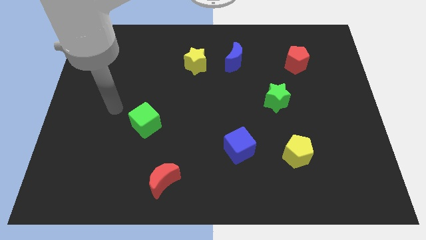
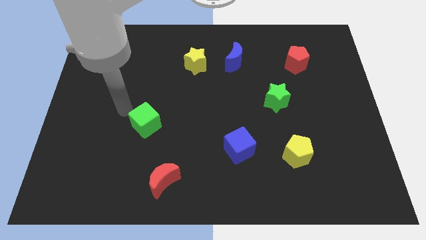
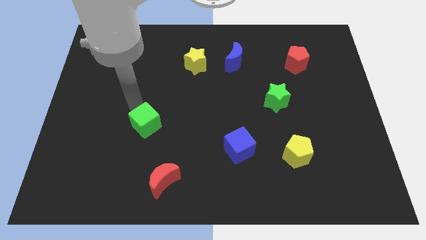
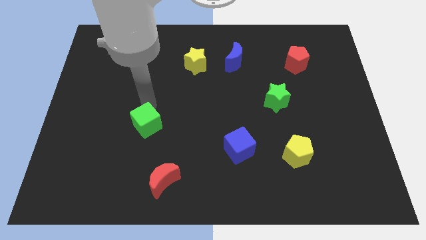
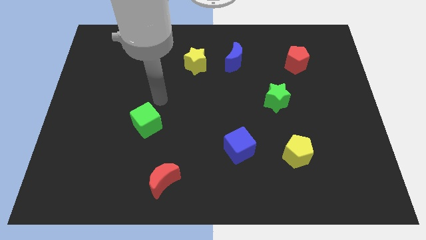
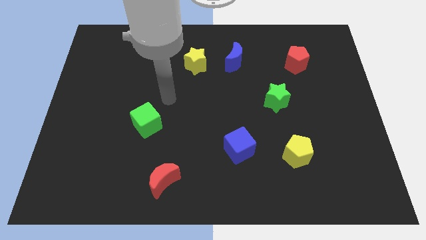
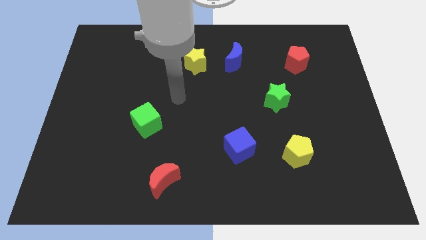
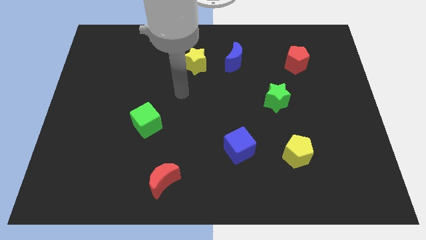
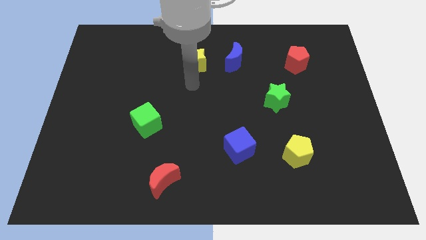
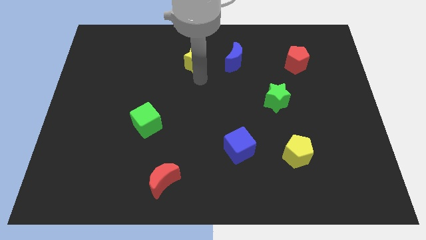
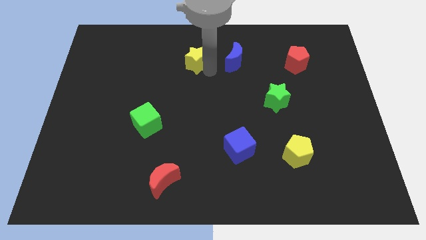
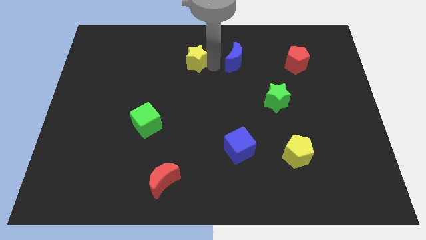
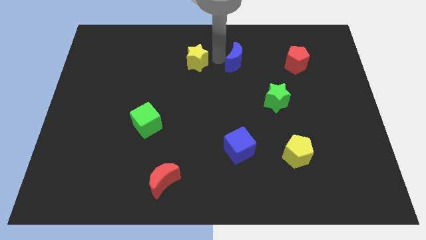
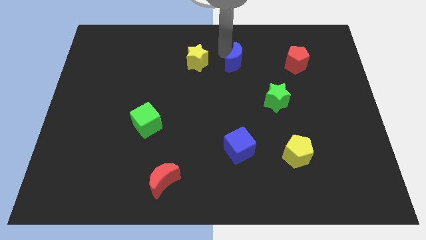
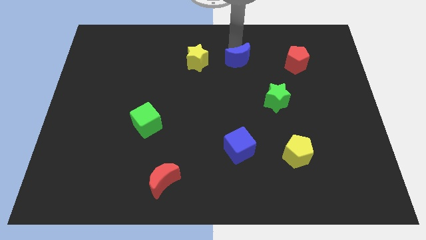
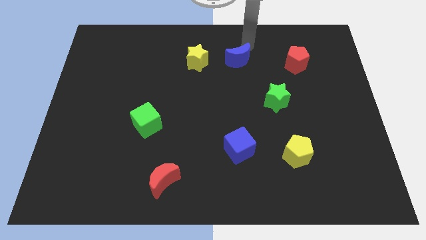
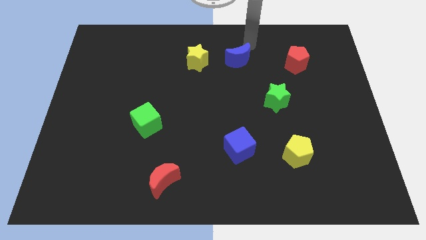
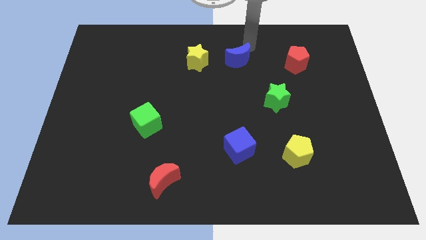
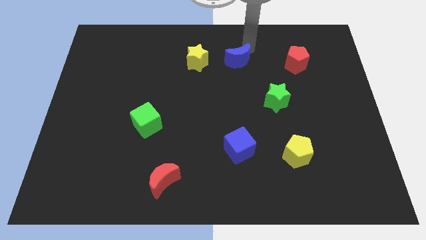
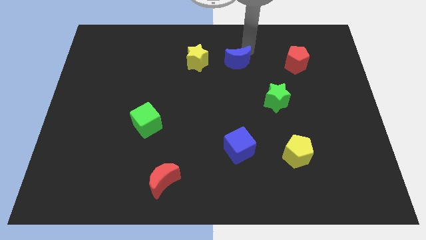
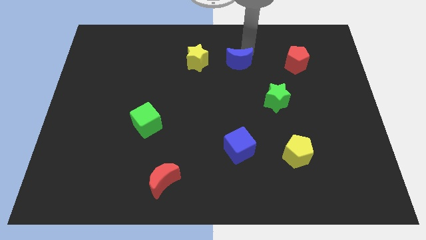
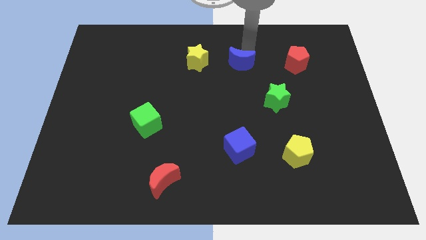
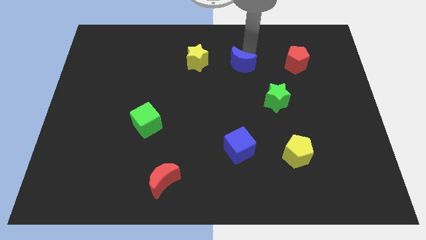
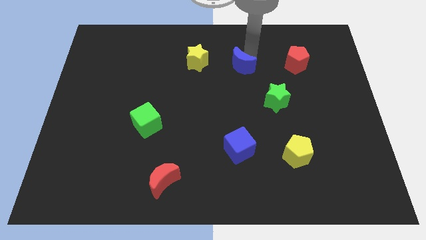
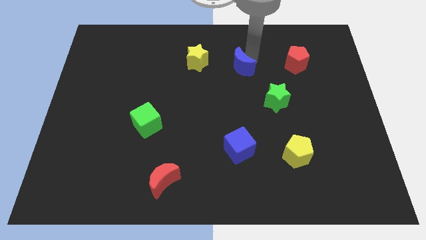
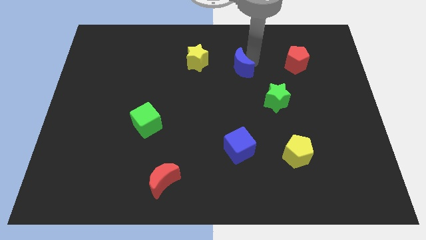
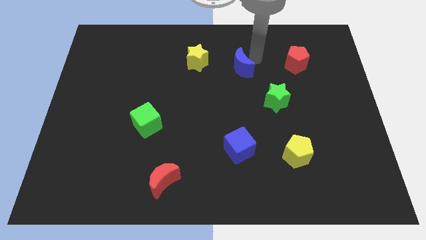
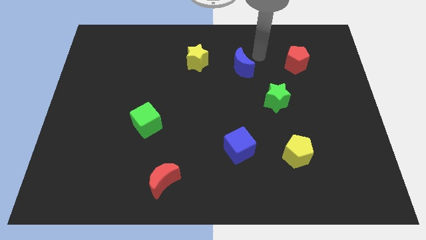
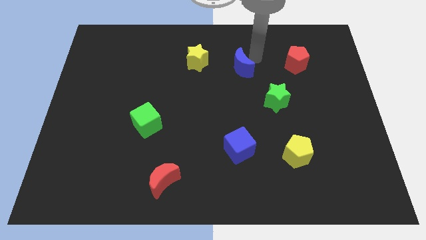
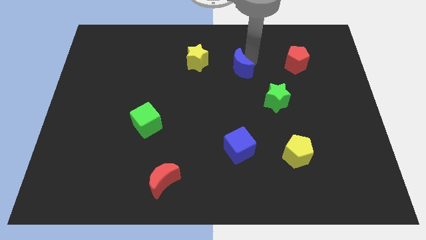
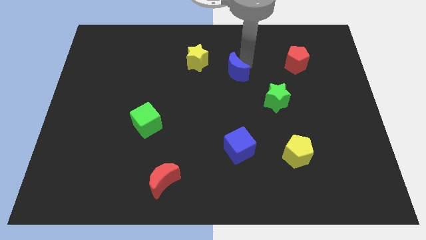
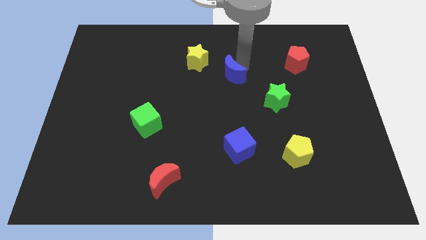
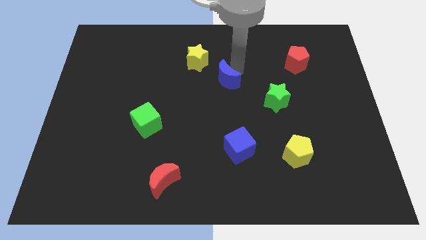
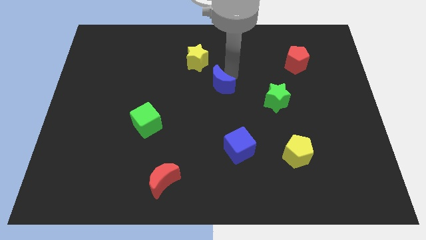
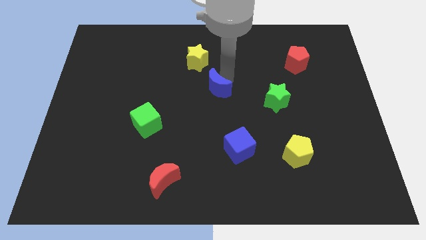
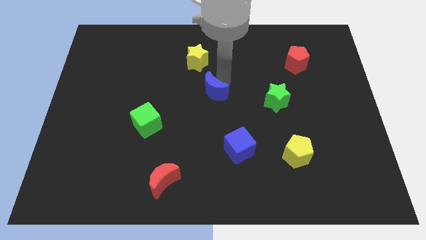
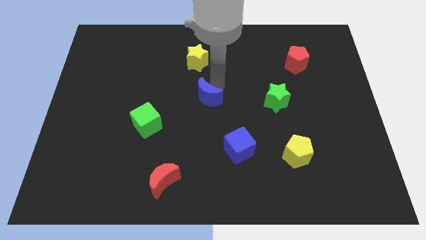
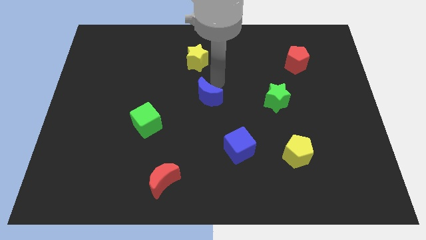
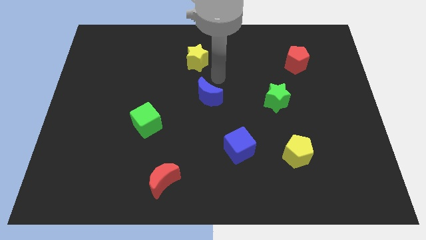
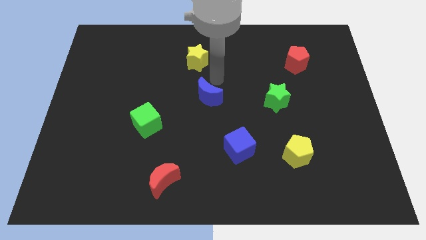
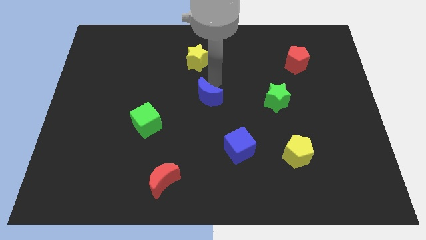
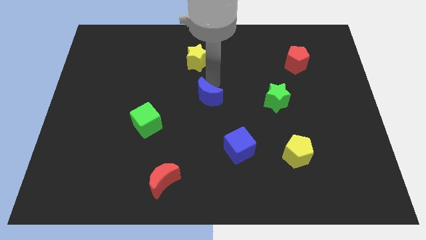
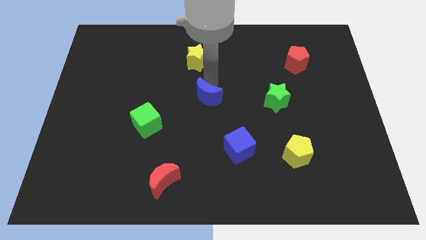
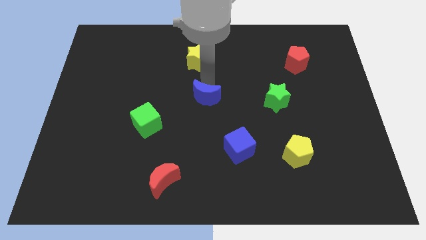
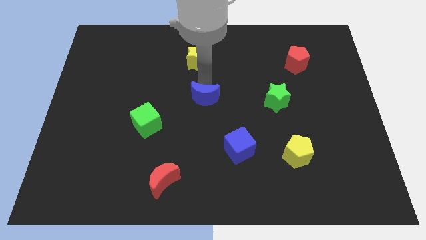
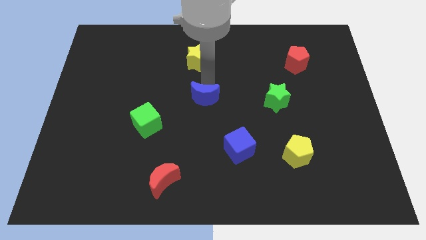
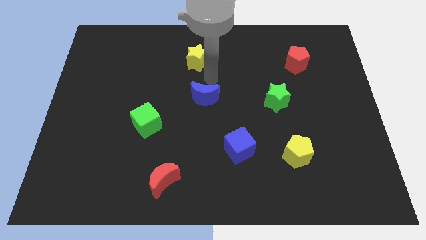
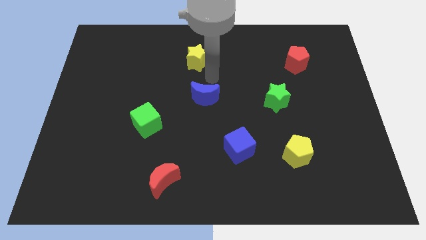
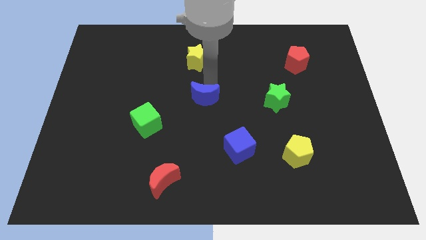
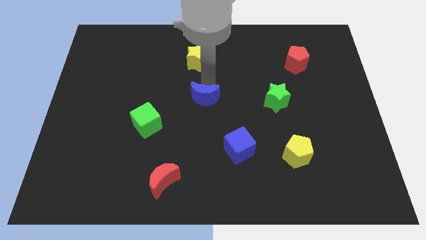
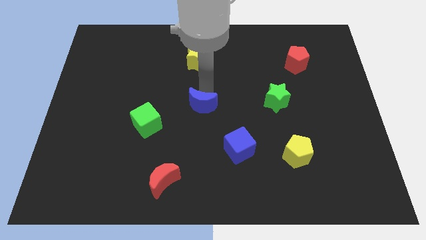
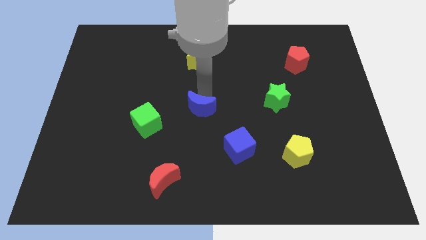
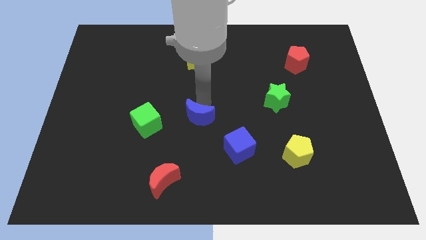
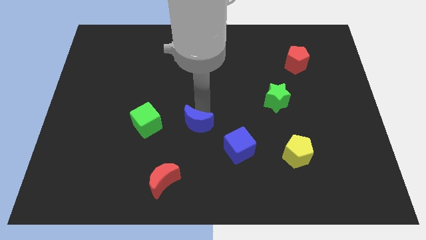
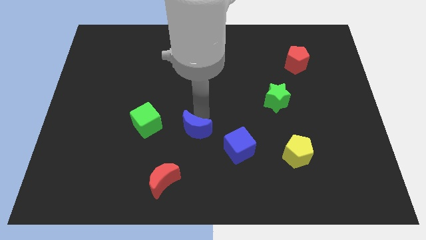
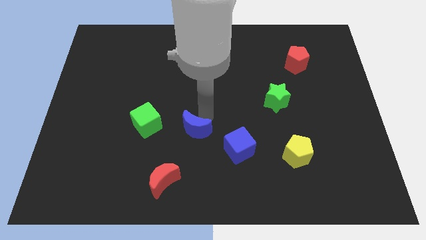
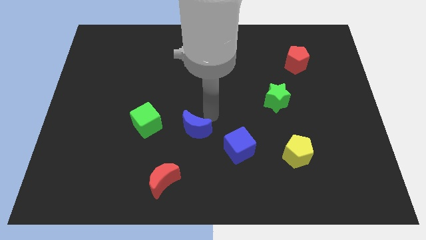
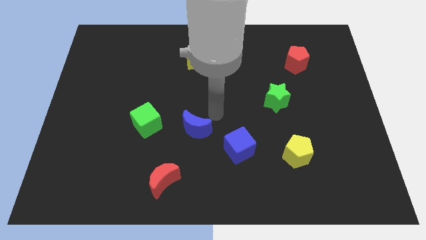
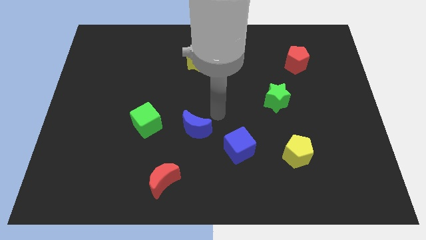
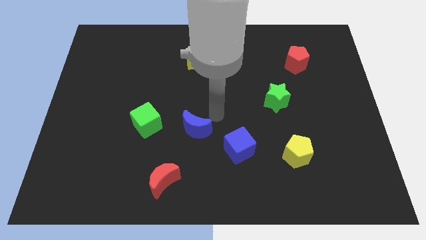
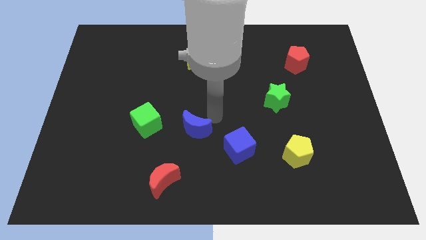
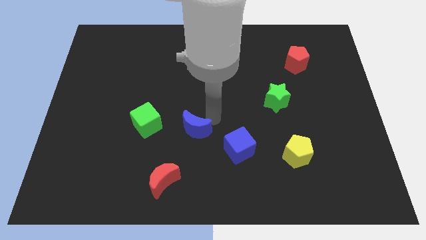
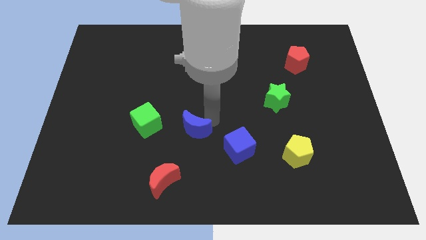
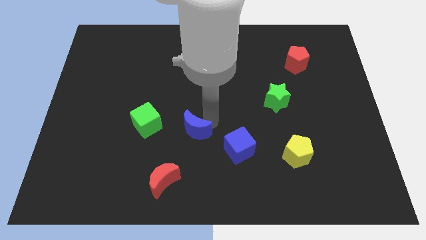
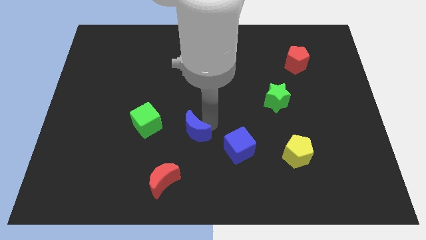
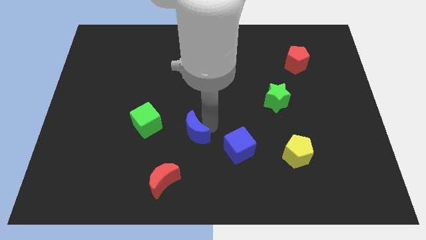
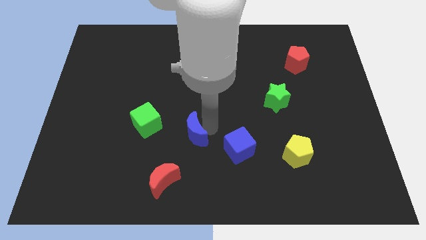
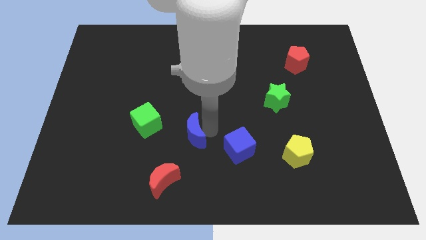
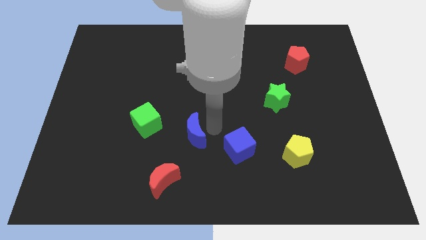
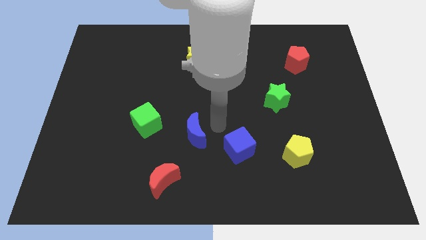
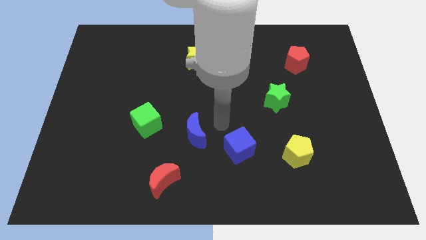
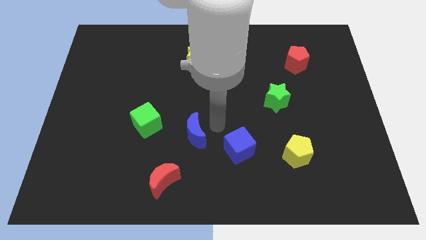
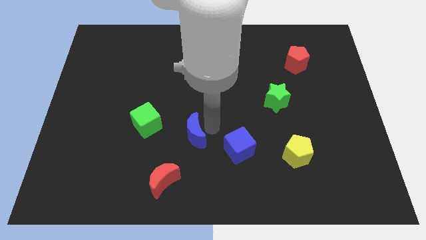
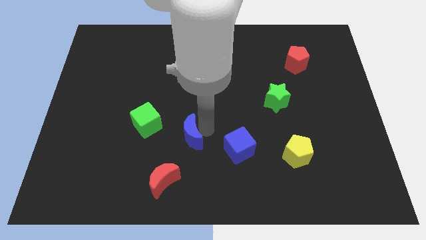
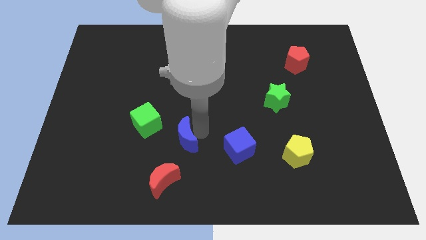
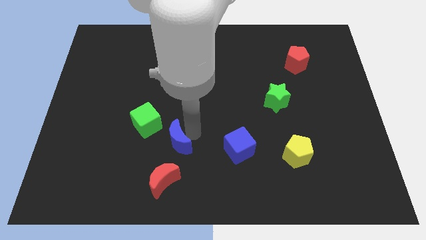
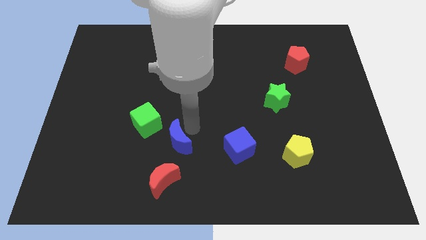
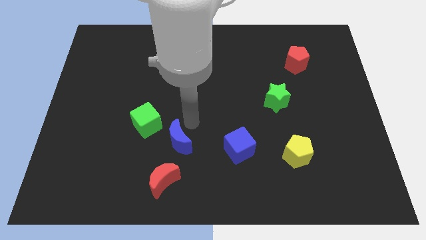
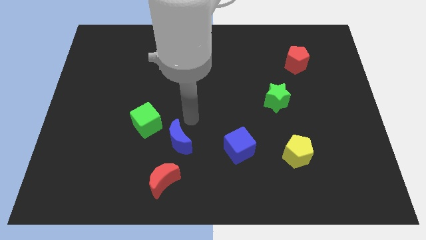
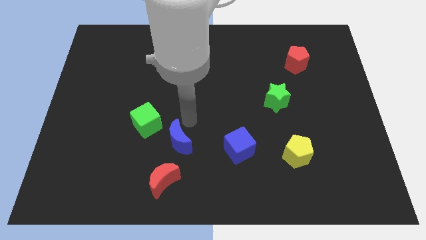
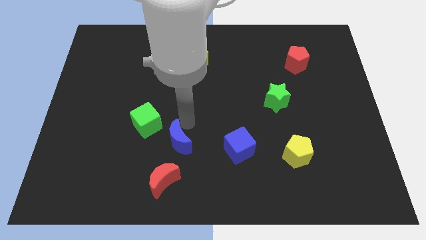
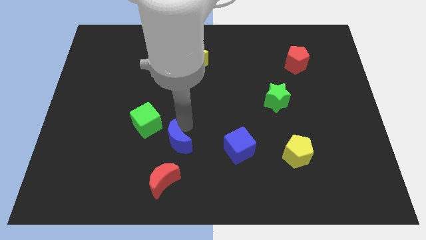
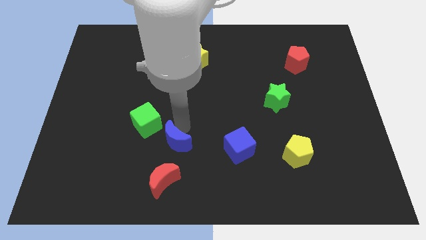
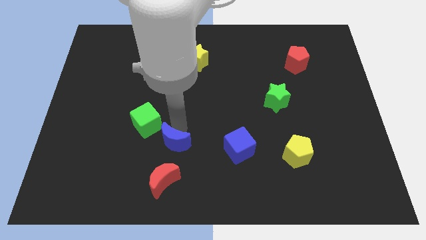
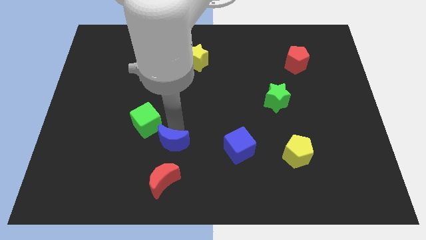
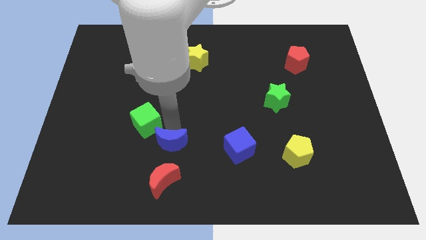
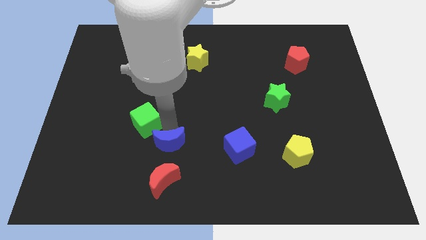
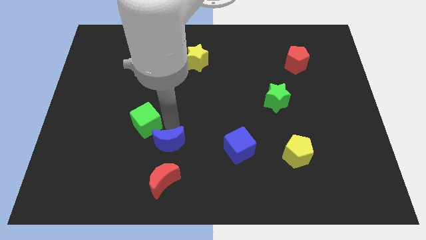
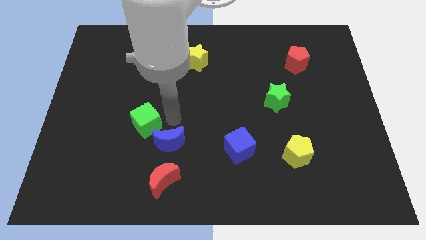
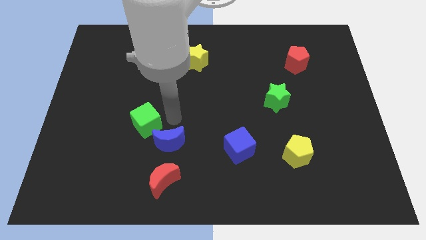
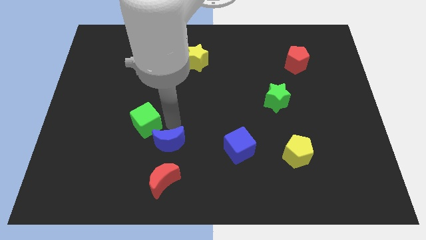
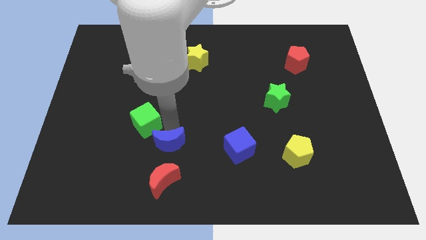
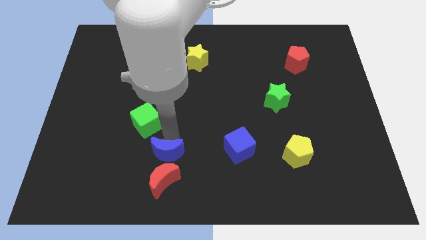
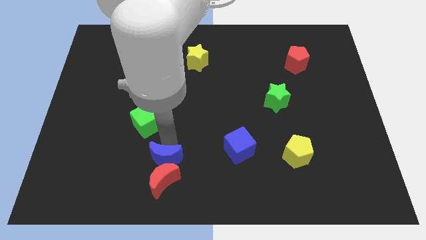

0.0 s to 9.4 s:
slide the blue moon next to the red moon
